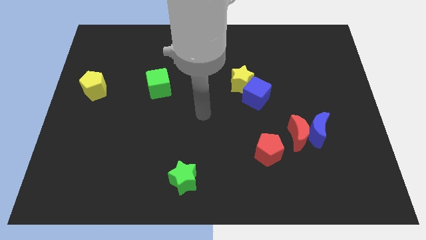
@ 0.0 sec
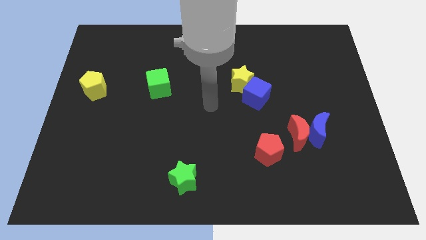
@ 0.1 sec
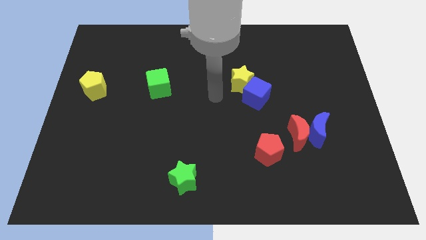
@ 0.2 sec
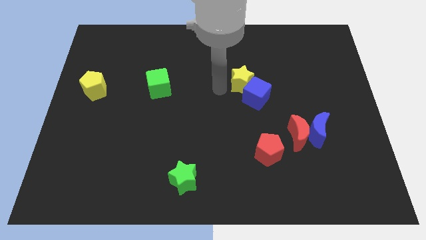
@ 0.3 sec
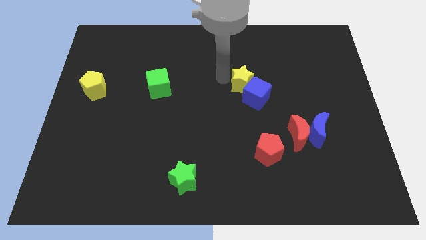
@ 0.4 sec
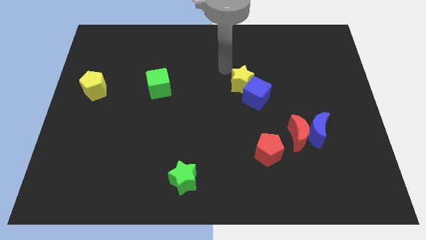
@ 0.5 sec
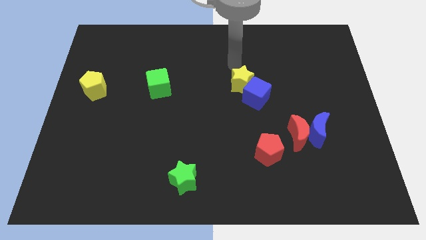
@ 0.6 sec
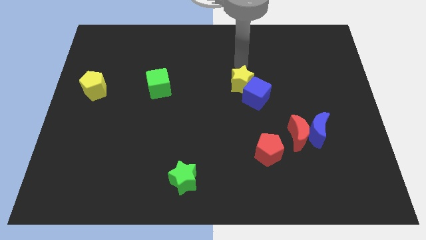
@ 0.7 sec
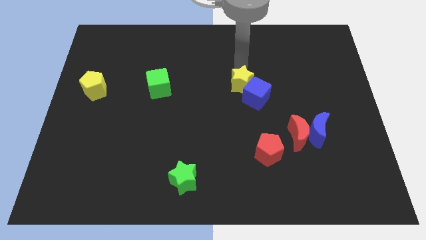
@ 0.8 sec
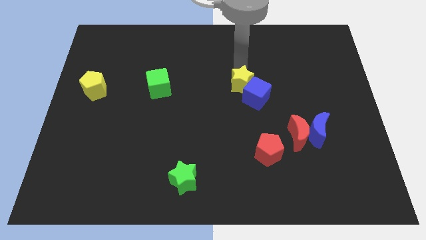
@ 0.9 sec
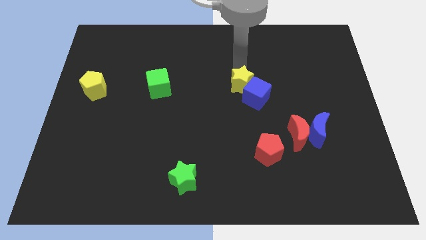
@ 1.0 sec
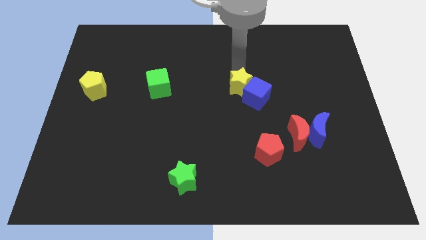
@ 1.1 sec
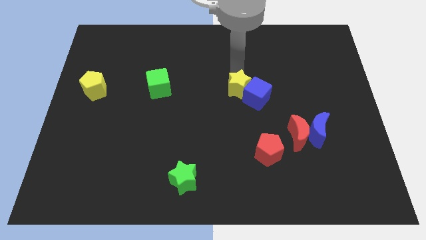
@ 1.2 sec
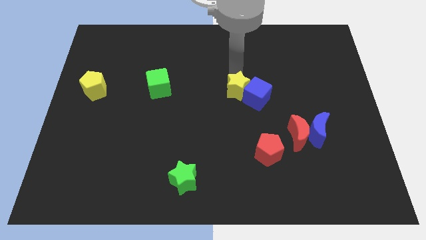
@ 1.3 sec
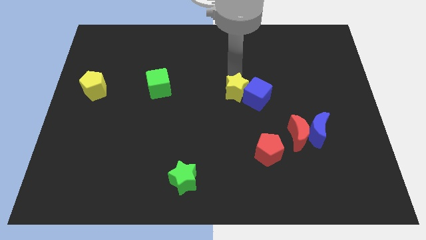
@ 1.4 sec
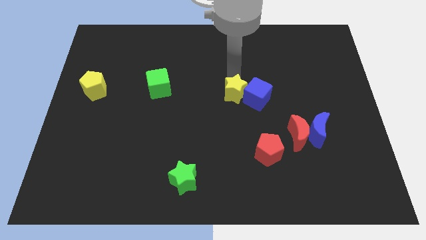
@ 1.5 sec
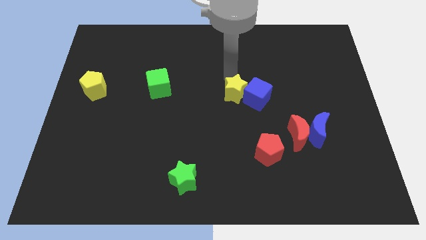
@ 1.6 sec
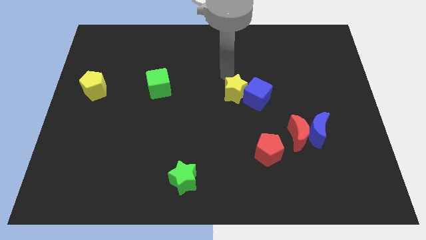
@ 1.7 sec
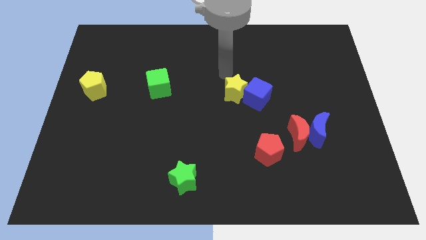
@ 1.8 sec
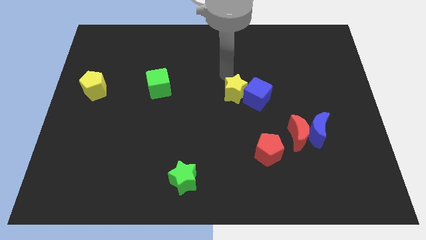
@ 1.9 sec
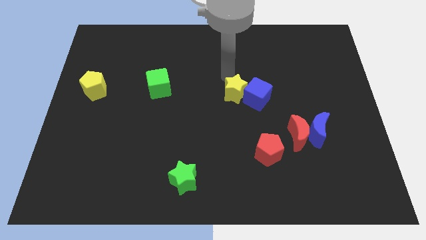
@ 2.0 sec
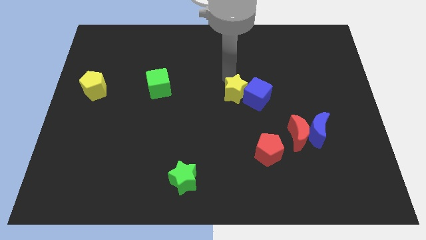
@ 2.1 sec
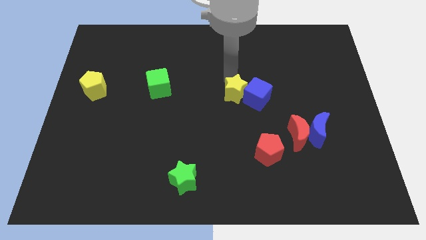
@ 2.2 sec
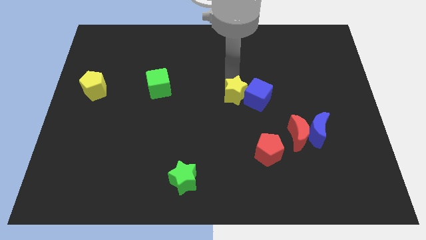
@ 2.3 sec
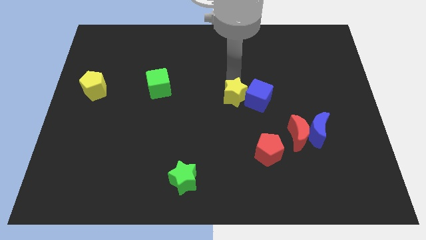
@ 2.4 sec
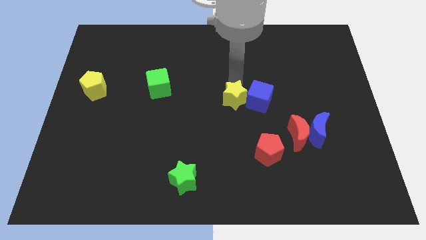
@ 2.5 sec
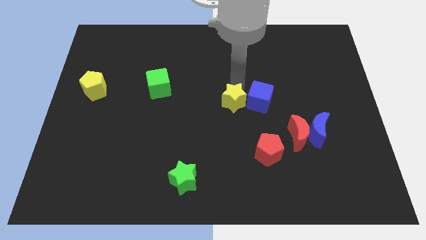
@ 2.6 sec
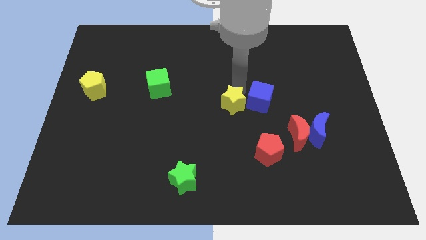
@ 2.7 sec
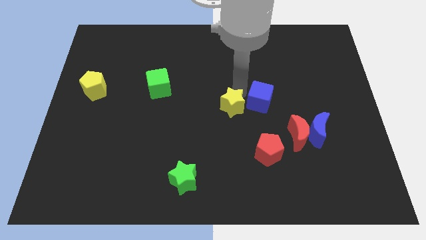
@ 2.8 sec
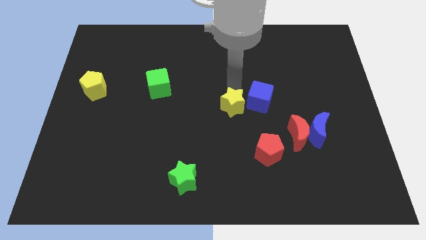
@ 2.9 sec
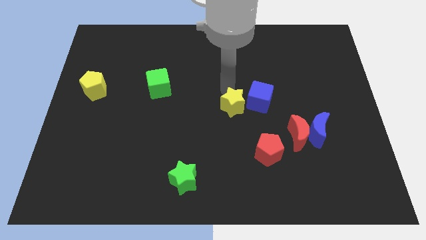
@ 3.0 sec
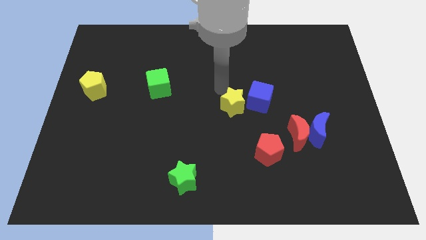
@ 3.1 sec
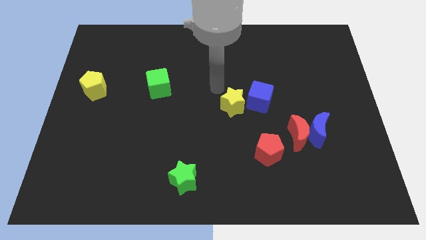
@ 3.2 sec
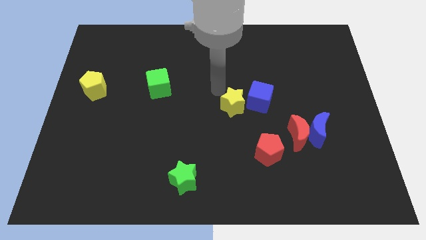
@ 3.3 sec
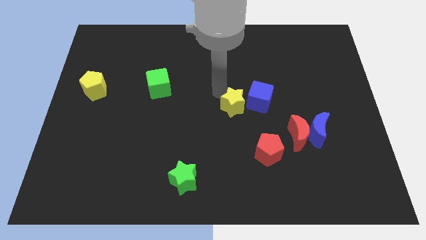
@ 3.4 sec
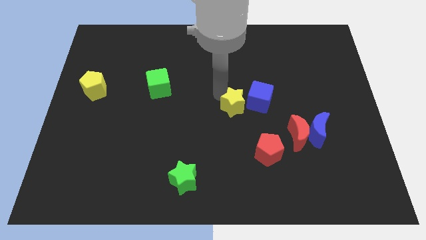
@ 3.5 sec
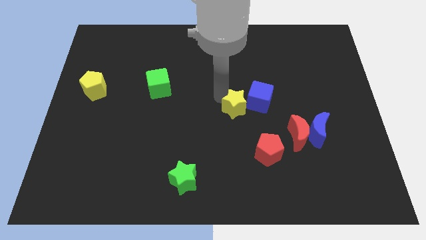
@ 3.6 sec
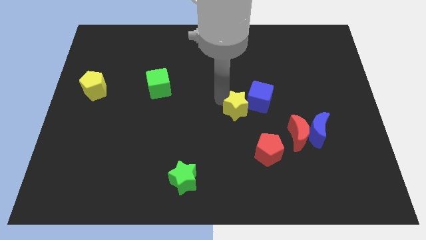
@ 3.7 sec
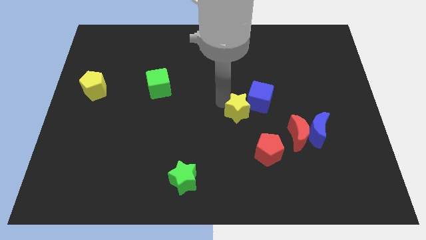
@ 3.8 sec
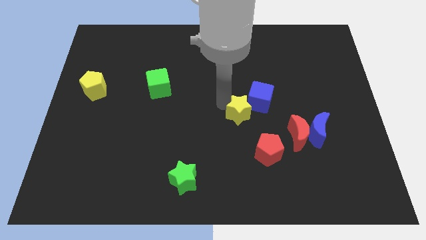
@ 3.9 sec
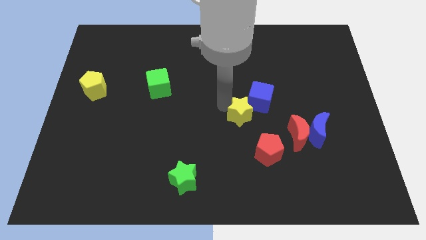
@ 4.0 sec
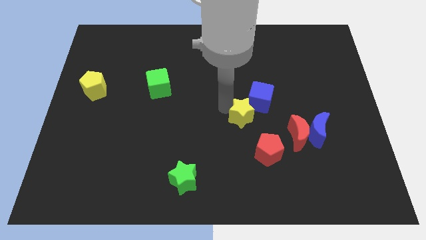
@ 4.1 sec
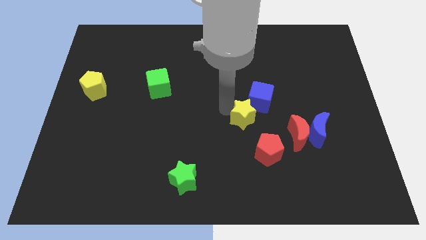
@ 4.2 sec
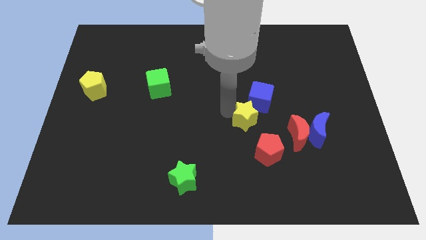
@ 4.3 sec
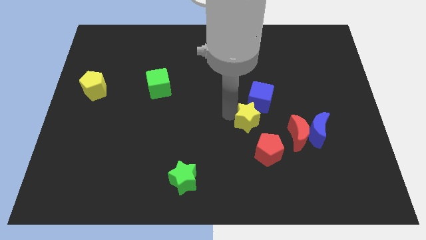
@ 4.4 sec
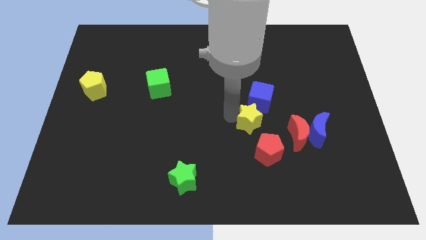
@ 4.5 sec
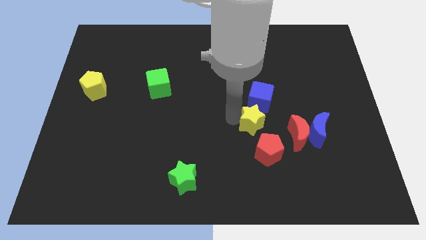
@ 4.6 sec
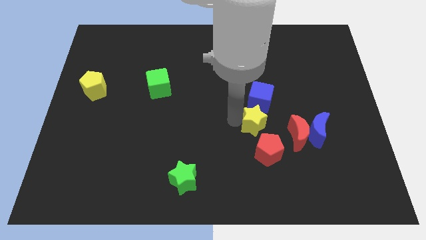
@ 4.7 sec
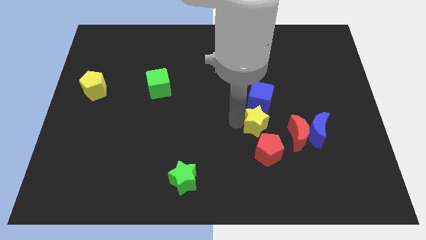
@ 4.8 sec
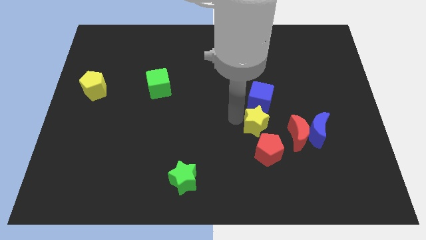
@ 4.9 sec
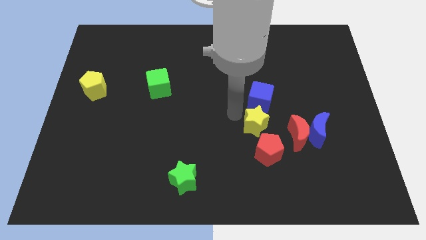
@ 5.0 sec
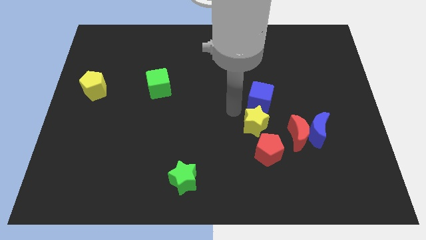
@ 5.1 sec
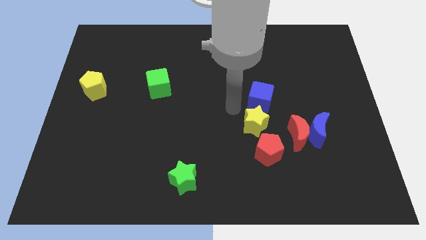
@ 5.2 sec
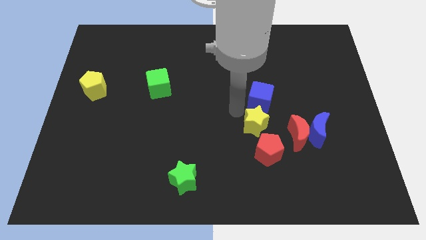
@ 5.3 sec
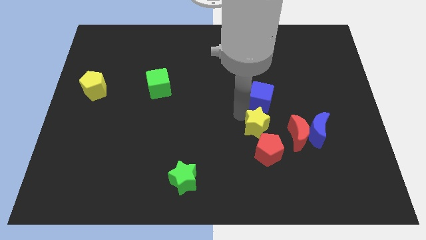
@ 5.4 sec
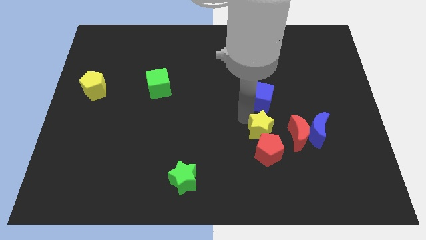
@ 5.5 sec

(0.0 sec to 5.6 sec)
put the yellow star towards the red pentagon
